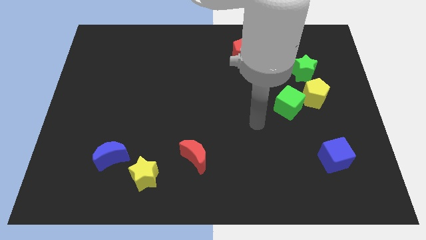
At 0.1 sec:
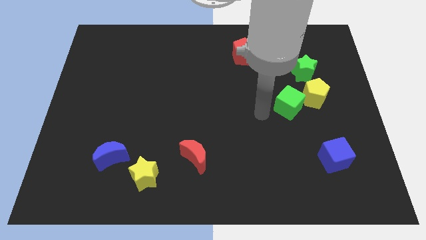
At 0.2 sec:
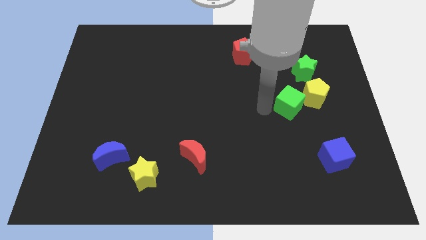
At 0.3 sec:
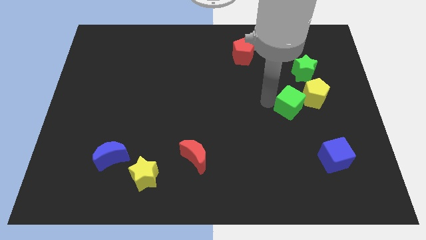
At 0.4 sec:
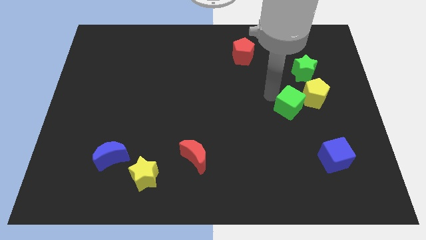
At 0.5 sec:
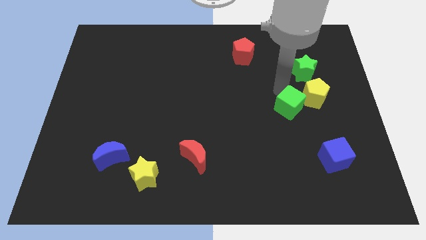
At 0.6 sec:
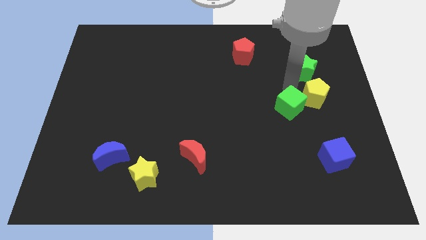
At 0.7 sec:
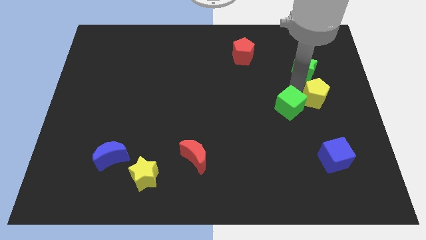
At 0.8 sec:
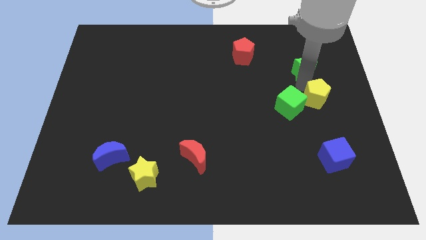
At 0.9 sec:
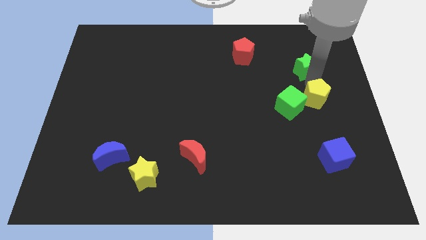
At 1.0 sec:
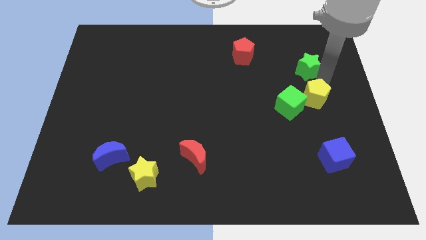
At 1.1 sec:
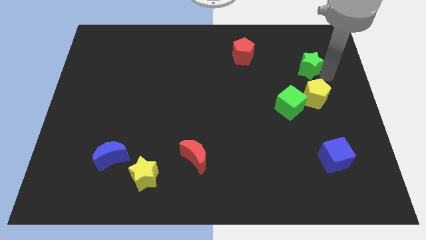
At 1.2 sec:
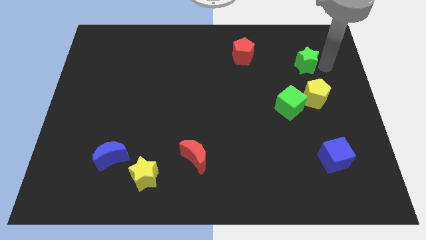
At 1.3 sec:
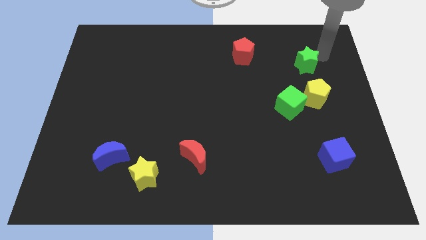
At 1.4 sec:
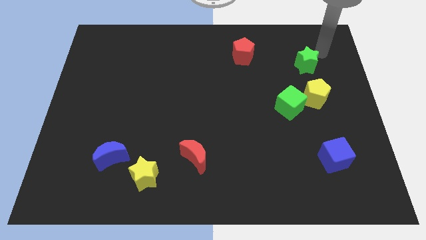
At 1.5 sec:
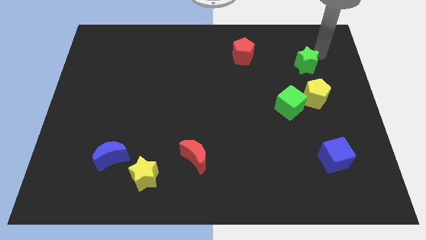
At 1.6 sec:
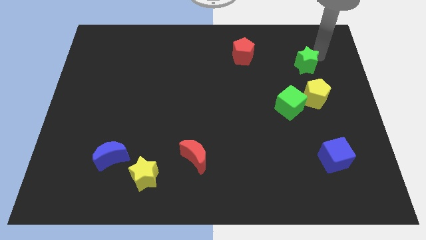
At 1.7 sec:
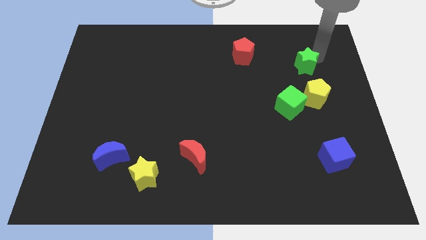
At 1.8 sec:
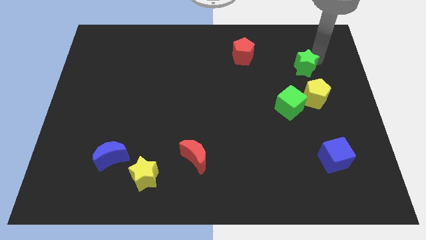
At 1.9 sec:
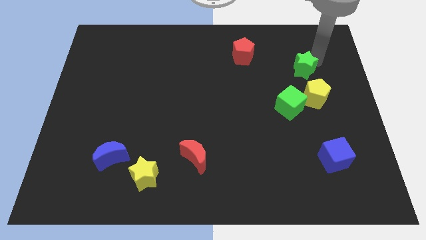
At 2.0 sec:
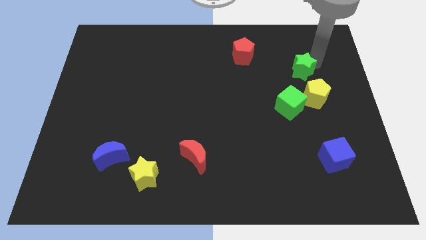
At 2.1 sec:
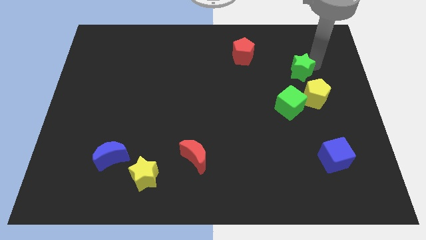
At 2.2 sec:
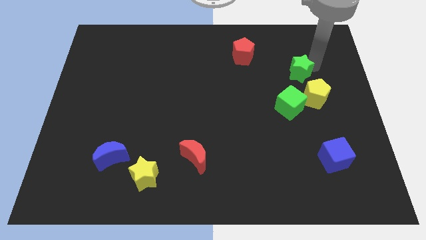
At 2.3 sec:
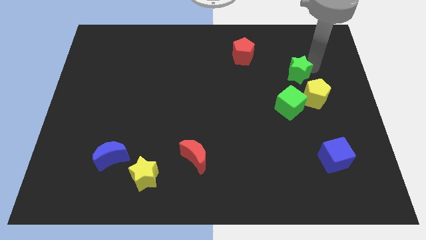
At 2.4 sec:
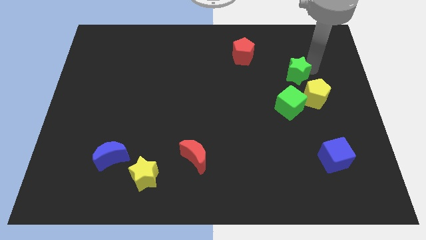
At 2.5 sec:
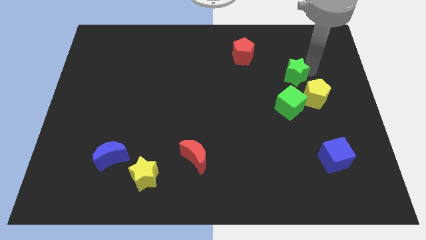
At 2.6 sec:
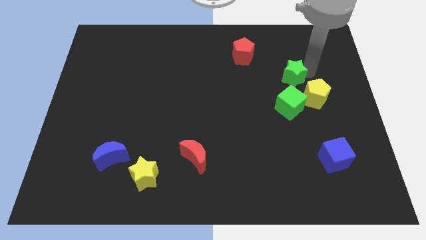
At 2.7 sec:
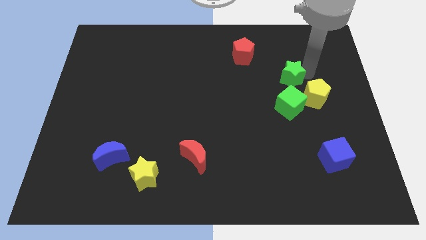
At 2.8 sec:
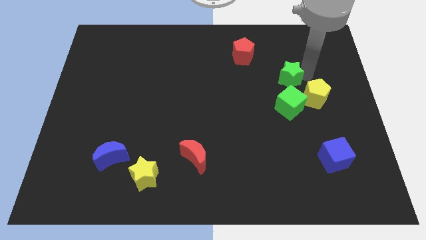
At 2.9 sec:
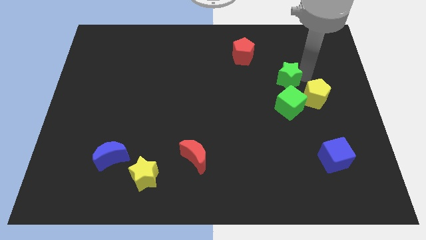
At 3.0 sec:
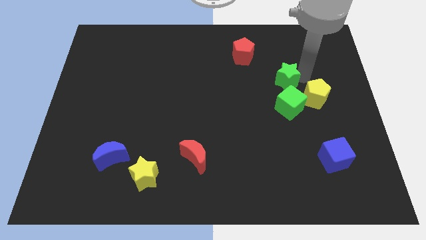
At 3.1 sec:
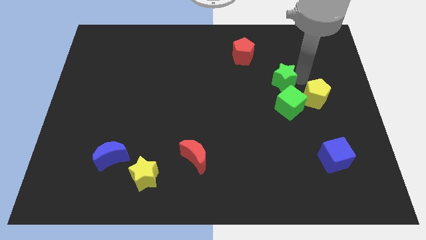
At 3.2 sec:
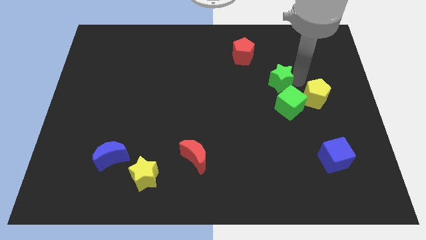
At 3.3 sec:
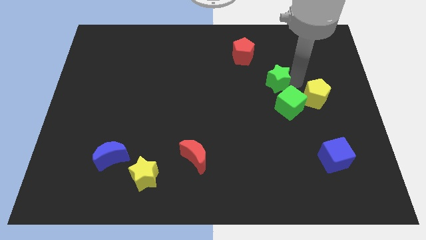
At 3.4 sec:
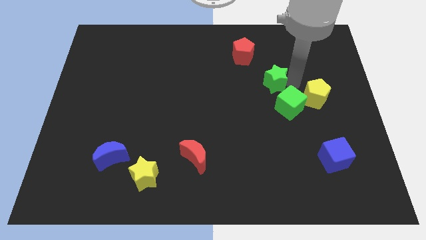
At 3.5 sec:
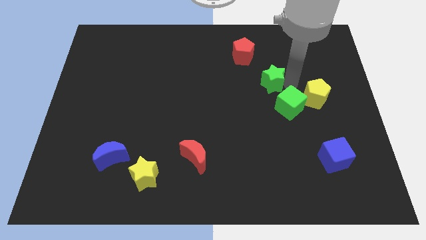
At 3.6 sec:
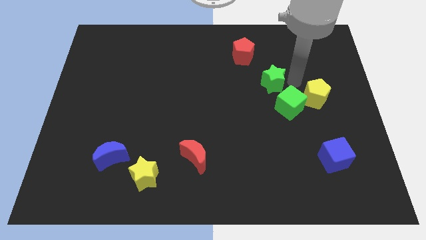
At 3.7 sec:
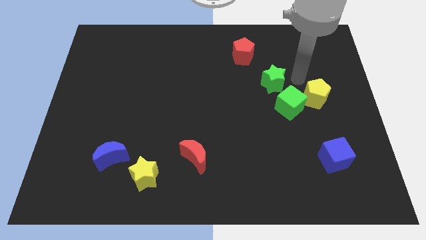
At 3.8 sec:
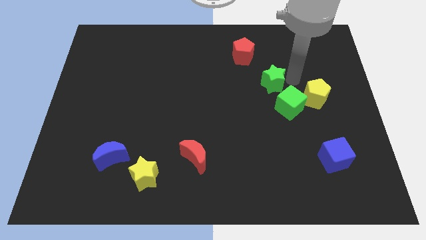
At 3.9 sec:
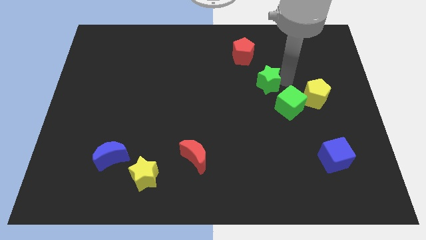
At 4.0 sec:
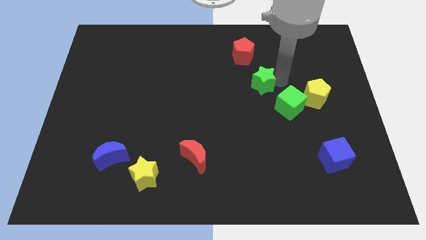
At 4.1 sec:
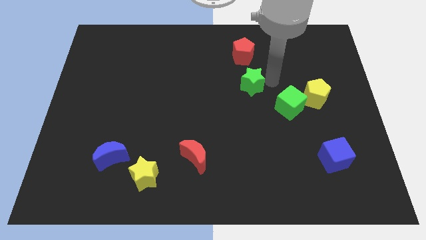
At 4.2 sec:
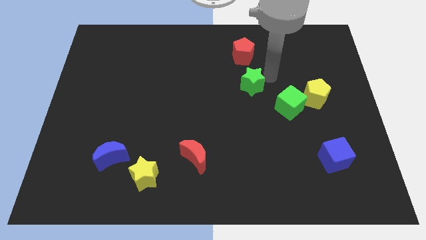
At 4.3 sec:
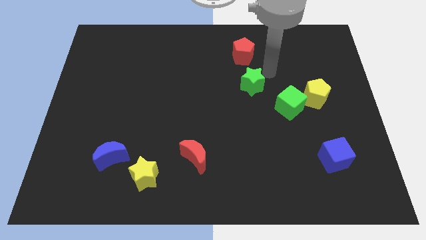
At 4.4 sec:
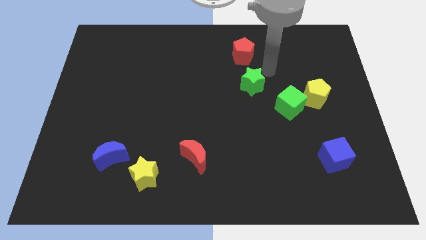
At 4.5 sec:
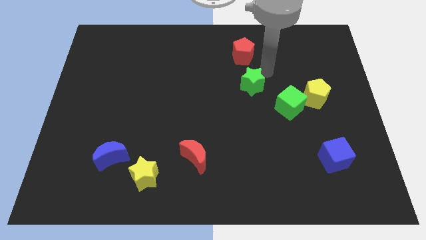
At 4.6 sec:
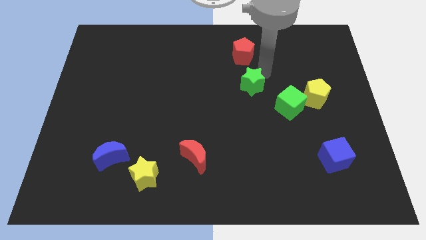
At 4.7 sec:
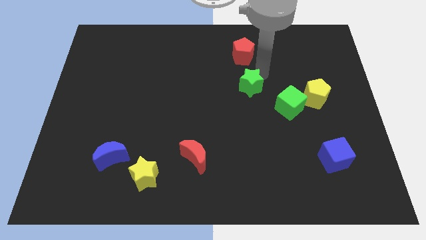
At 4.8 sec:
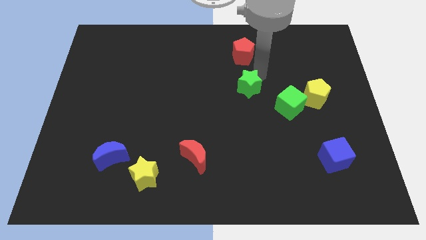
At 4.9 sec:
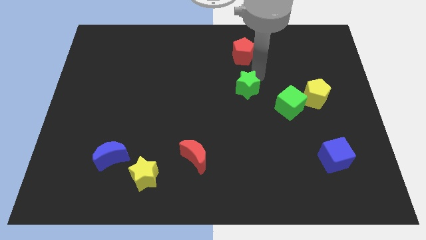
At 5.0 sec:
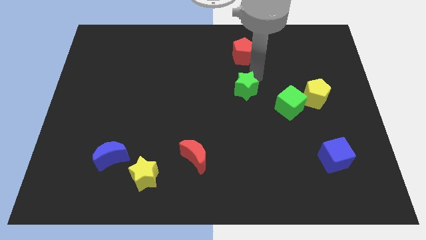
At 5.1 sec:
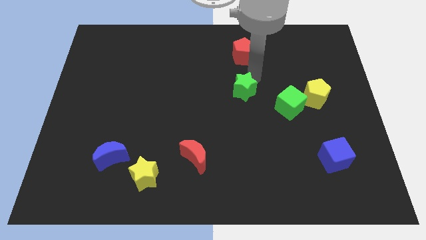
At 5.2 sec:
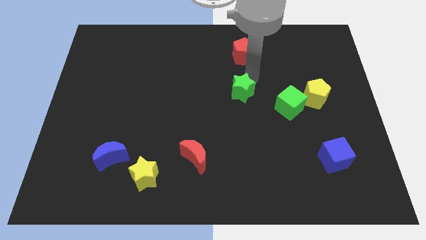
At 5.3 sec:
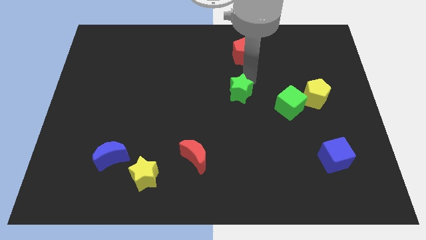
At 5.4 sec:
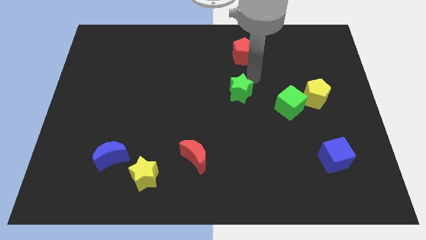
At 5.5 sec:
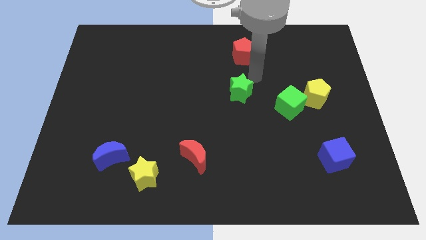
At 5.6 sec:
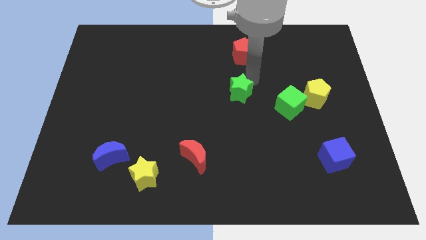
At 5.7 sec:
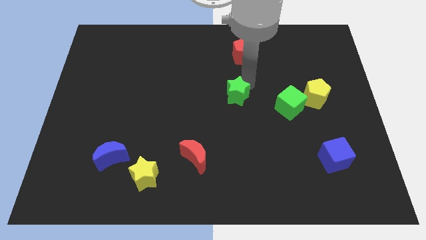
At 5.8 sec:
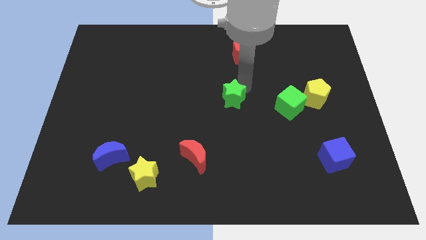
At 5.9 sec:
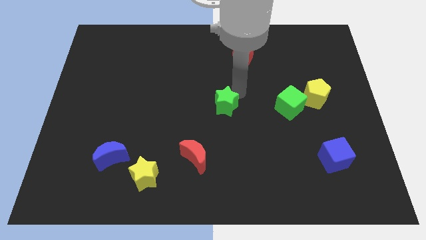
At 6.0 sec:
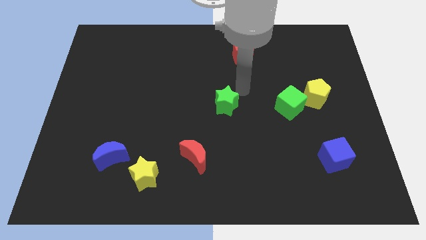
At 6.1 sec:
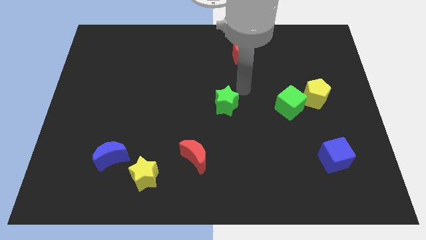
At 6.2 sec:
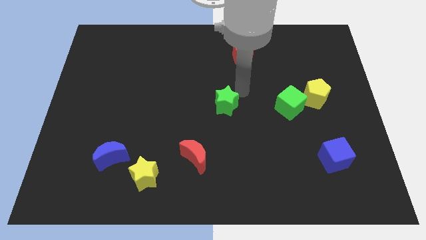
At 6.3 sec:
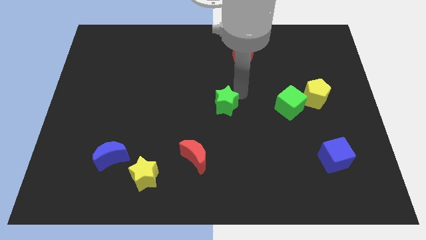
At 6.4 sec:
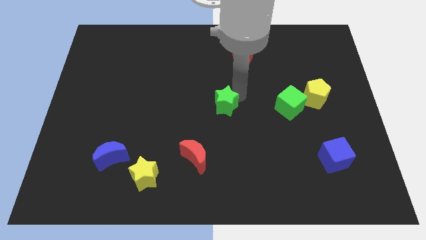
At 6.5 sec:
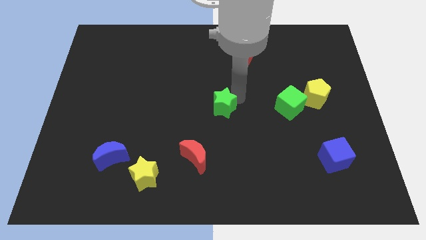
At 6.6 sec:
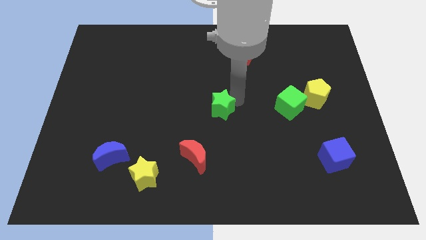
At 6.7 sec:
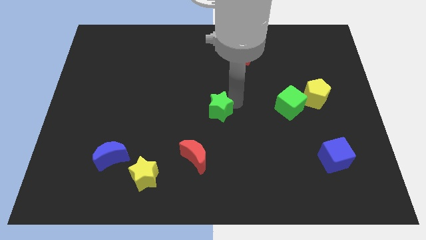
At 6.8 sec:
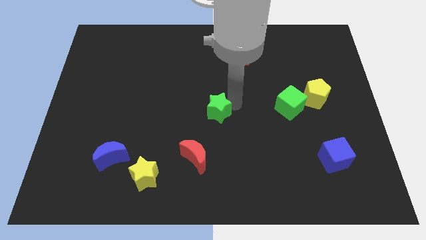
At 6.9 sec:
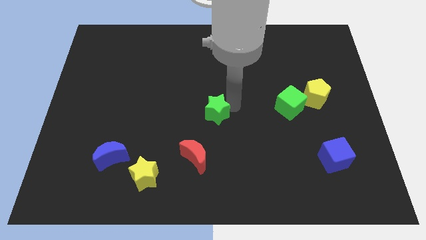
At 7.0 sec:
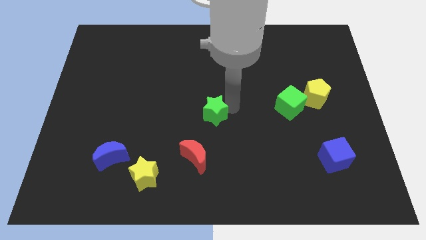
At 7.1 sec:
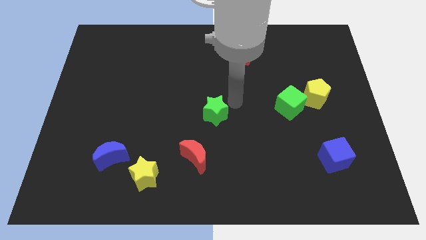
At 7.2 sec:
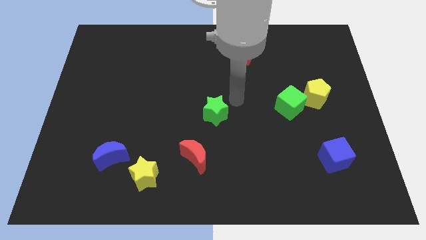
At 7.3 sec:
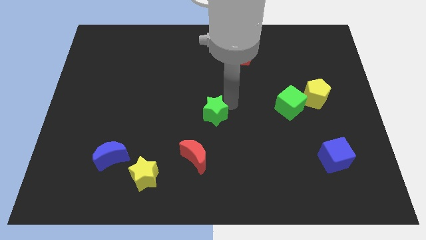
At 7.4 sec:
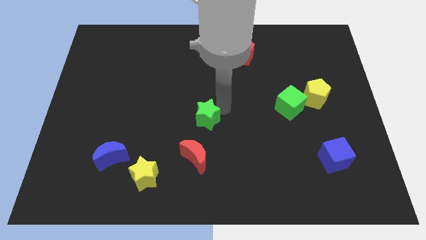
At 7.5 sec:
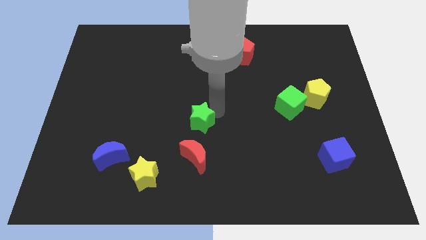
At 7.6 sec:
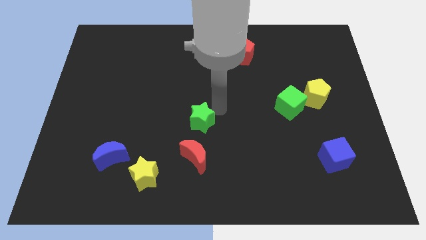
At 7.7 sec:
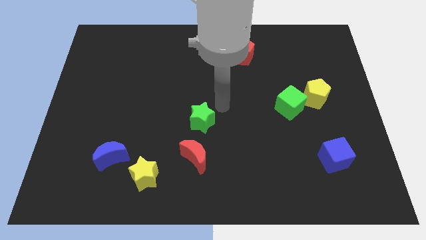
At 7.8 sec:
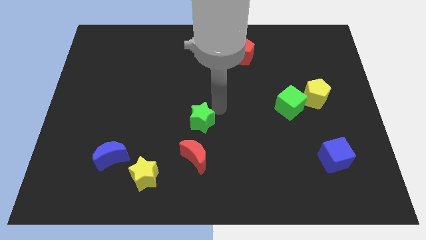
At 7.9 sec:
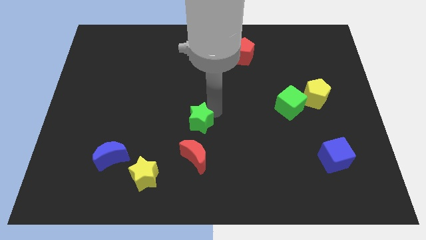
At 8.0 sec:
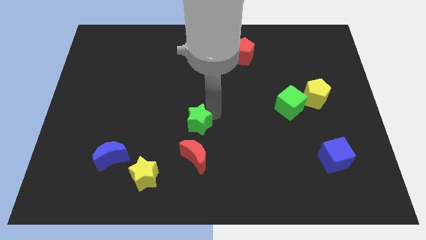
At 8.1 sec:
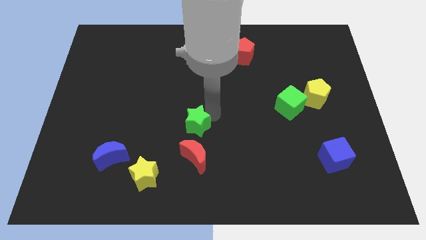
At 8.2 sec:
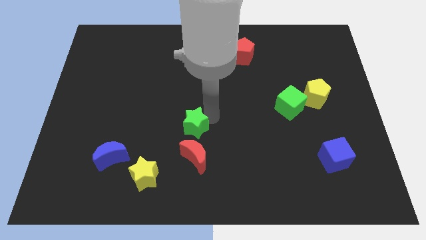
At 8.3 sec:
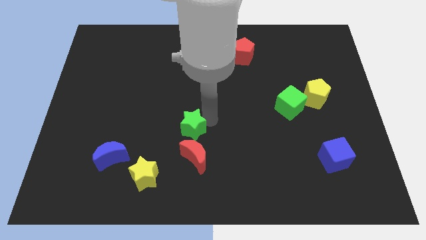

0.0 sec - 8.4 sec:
put the green star diagonally up and to the left of the red moon
